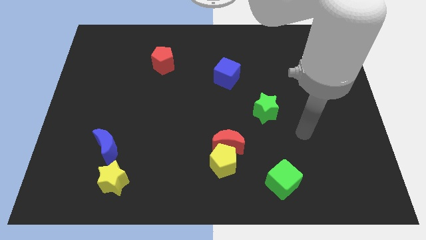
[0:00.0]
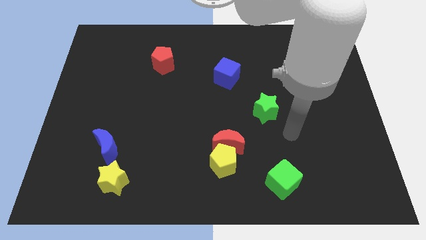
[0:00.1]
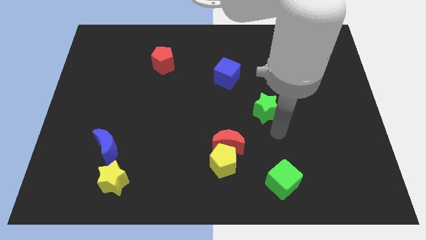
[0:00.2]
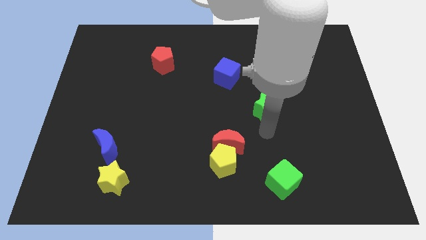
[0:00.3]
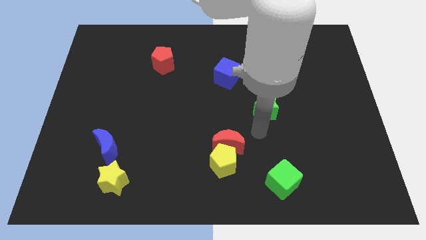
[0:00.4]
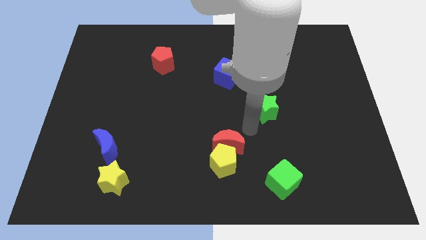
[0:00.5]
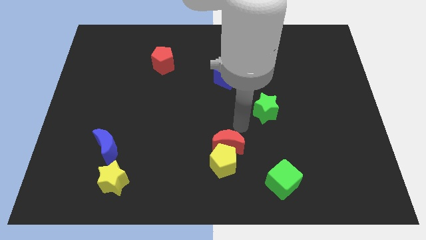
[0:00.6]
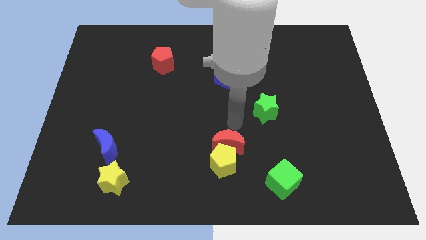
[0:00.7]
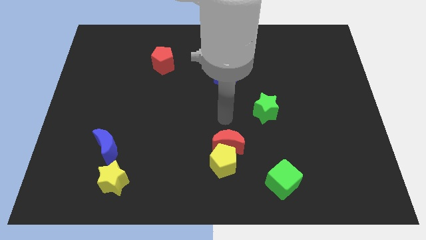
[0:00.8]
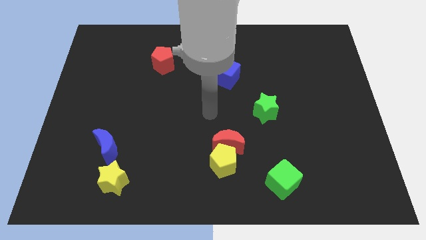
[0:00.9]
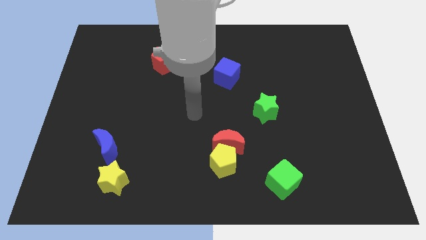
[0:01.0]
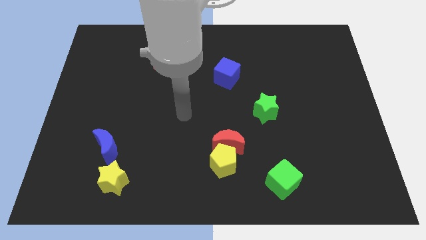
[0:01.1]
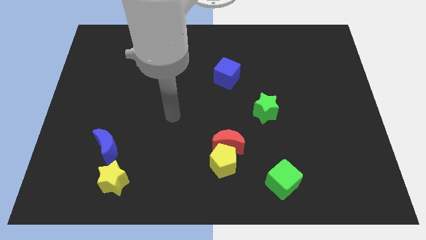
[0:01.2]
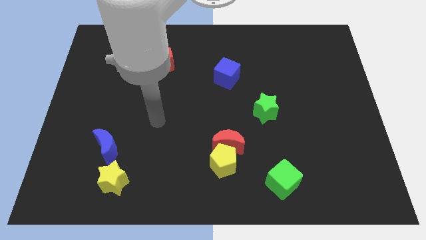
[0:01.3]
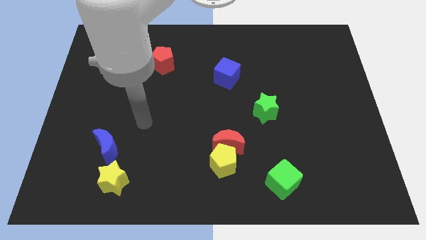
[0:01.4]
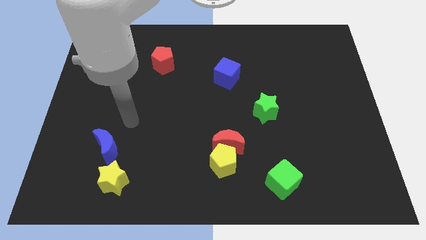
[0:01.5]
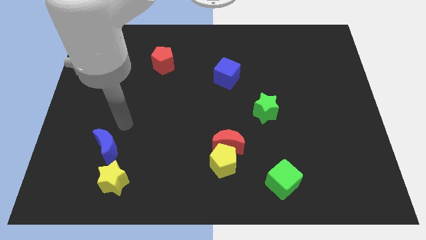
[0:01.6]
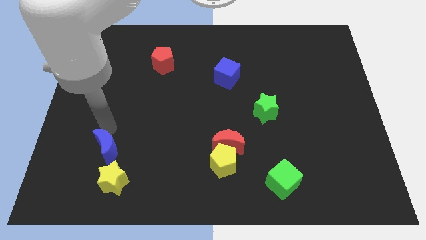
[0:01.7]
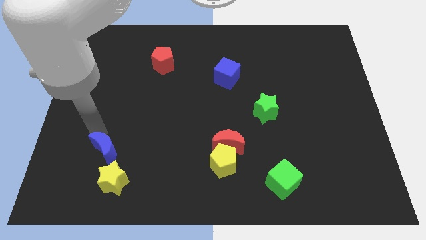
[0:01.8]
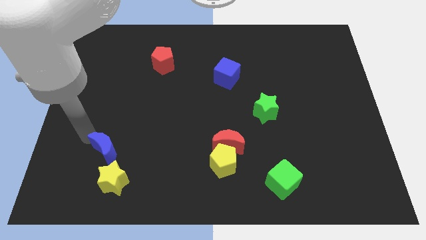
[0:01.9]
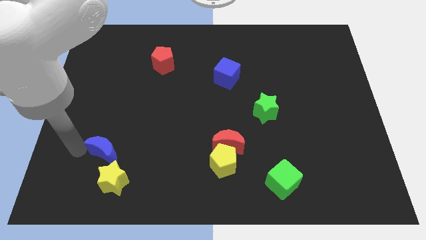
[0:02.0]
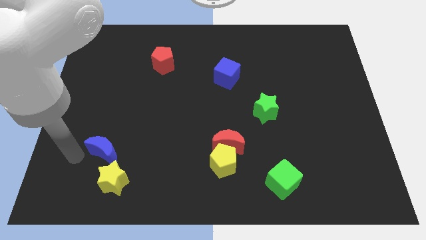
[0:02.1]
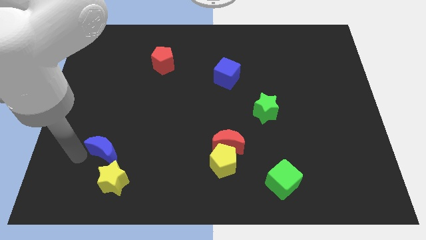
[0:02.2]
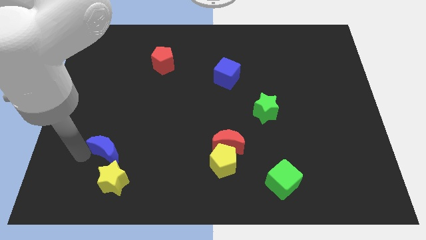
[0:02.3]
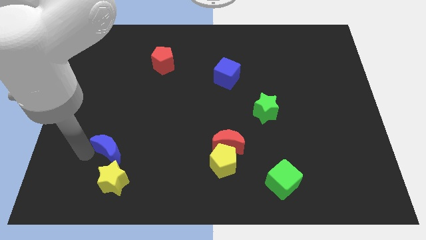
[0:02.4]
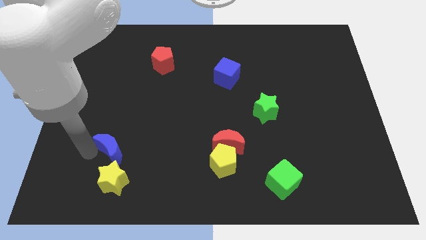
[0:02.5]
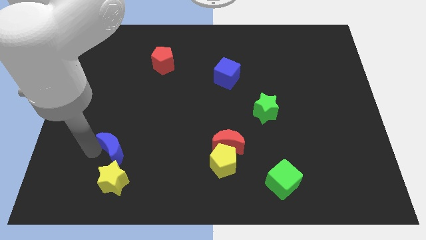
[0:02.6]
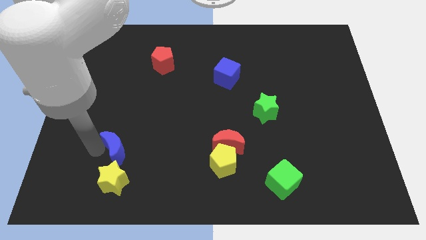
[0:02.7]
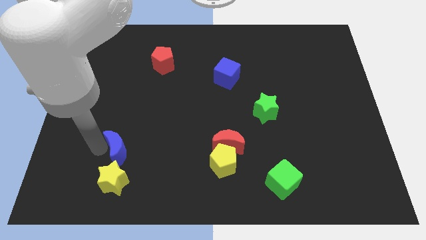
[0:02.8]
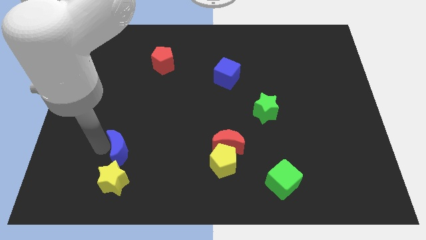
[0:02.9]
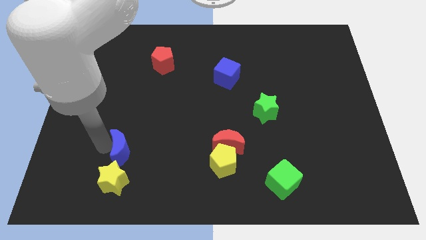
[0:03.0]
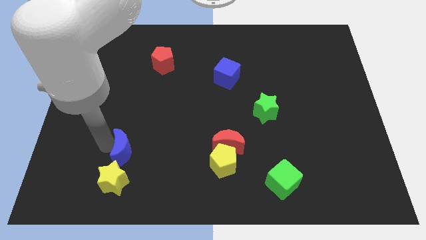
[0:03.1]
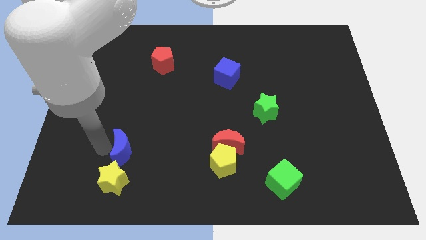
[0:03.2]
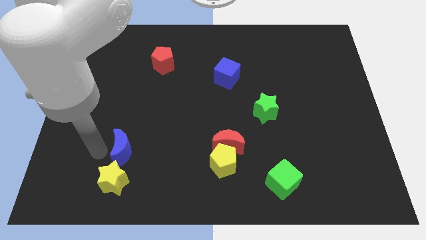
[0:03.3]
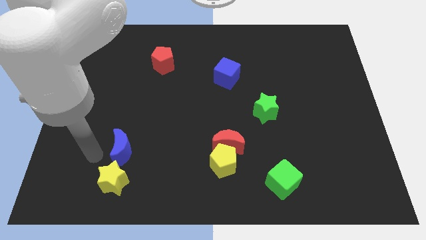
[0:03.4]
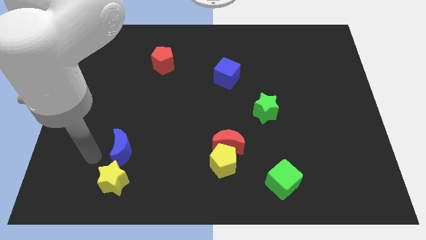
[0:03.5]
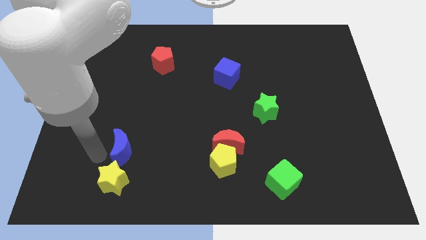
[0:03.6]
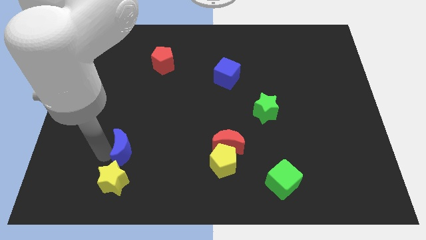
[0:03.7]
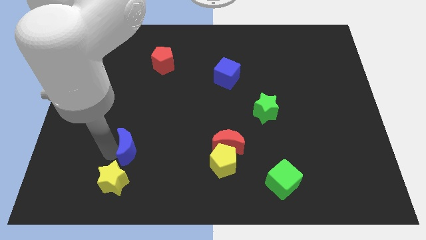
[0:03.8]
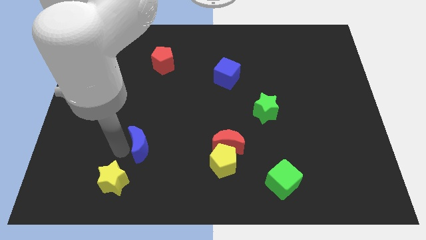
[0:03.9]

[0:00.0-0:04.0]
slide the blue moon right a bit

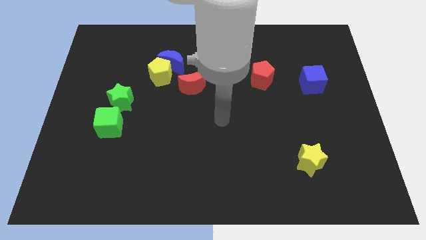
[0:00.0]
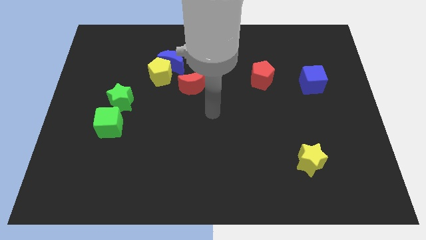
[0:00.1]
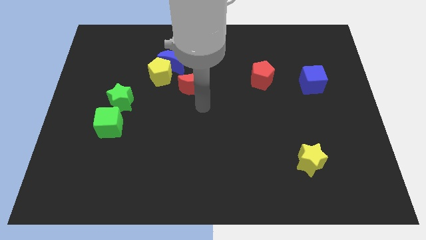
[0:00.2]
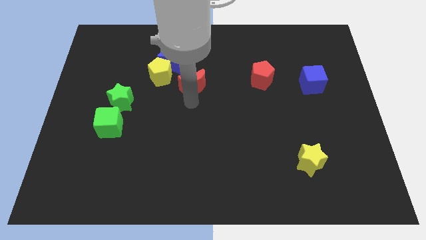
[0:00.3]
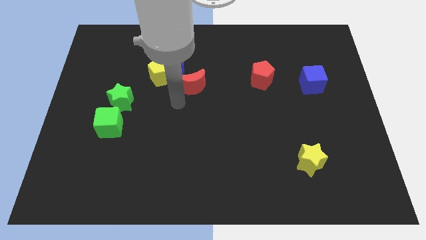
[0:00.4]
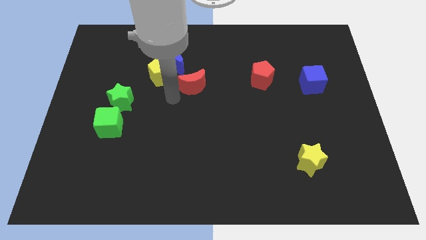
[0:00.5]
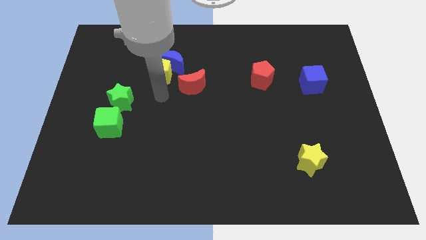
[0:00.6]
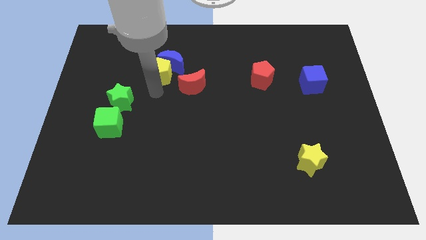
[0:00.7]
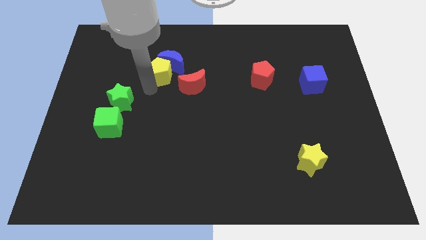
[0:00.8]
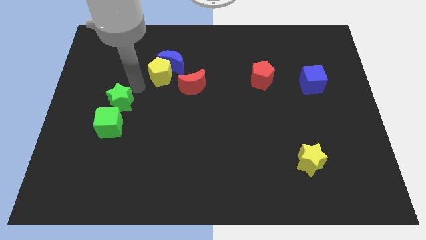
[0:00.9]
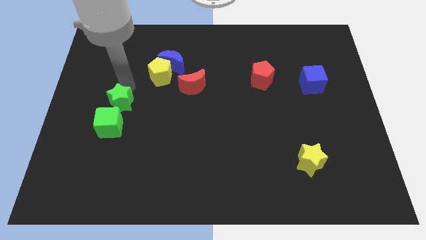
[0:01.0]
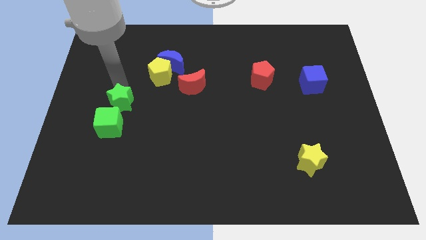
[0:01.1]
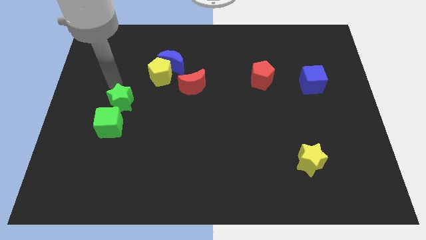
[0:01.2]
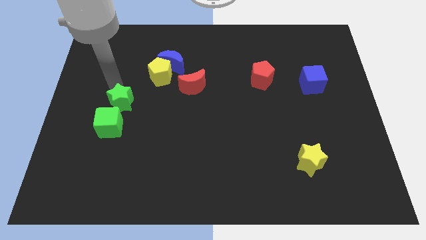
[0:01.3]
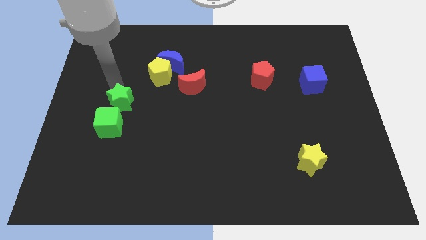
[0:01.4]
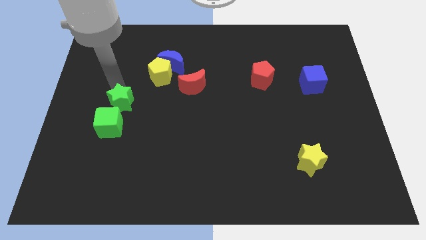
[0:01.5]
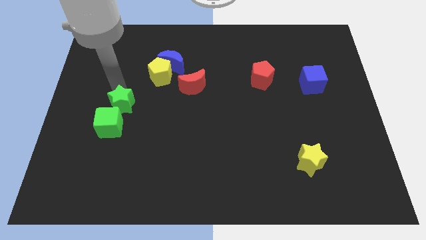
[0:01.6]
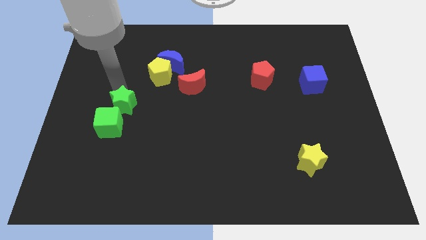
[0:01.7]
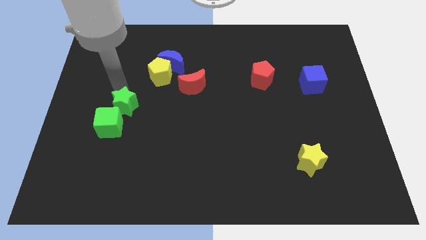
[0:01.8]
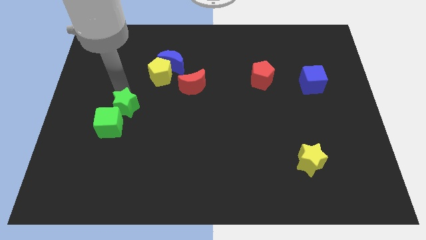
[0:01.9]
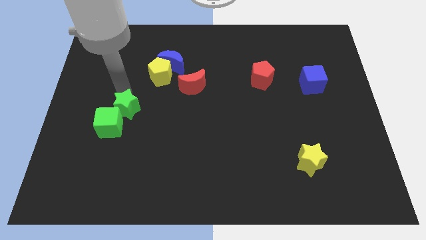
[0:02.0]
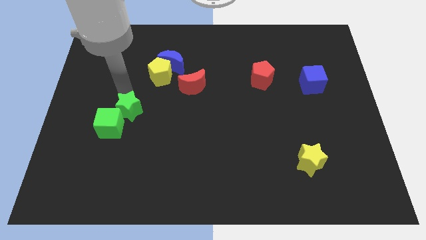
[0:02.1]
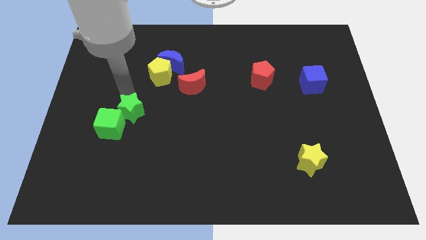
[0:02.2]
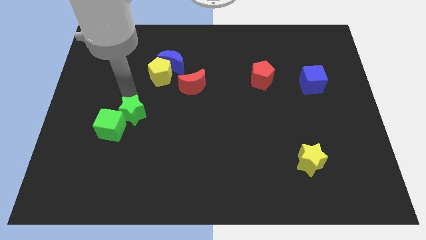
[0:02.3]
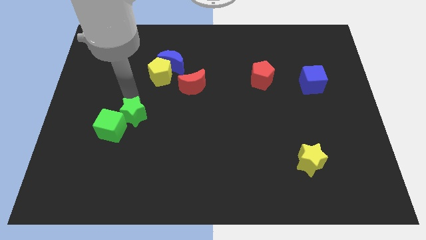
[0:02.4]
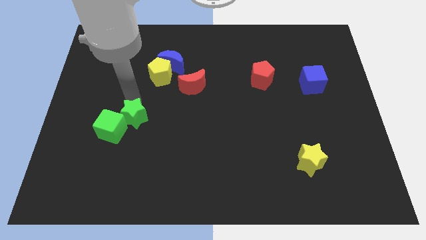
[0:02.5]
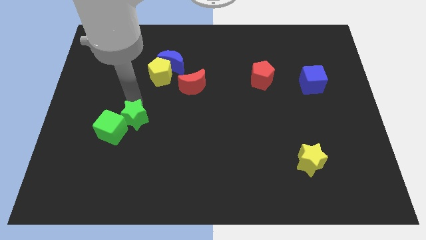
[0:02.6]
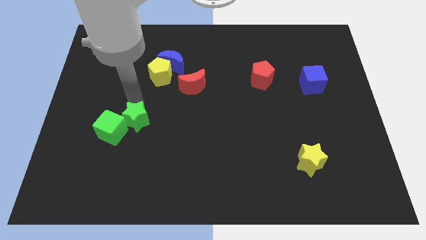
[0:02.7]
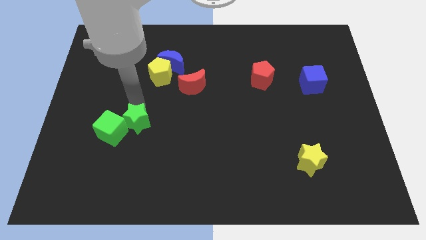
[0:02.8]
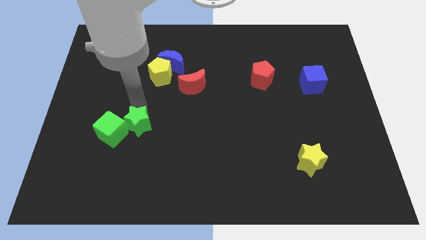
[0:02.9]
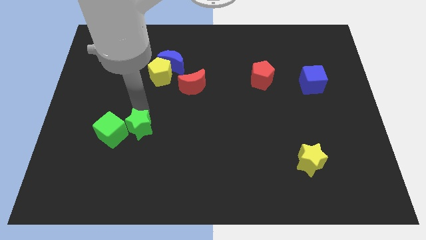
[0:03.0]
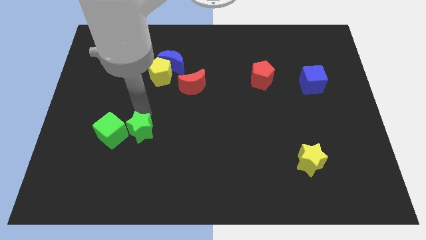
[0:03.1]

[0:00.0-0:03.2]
move the green star down somewhat

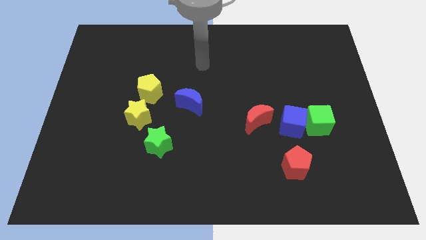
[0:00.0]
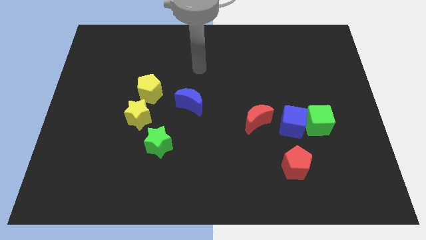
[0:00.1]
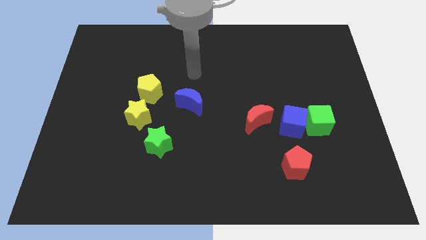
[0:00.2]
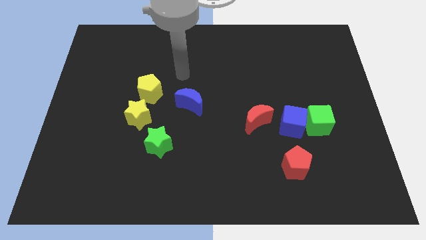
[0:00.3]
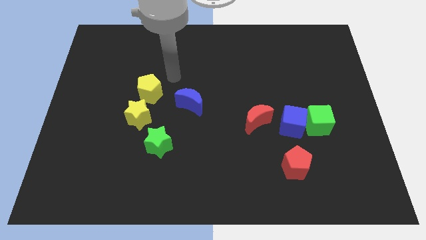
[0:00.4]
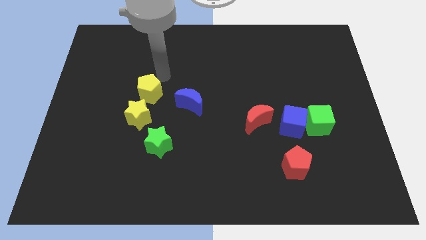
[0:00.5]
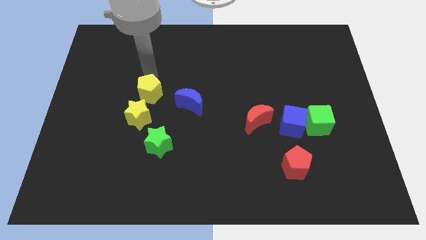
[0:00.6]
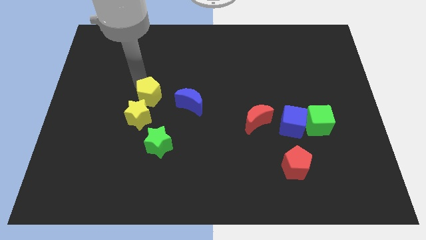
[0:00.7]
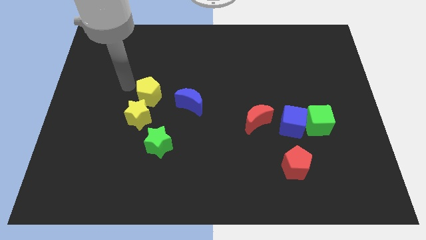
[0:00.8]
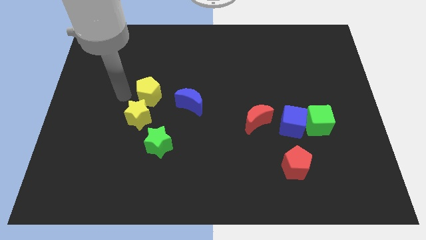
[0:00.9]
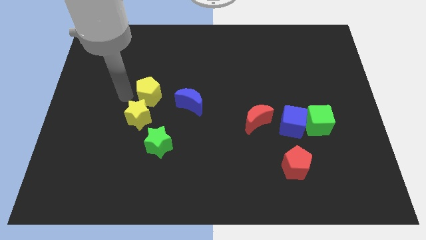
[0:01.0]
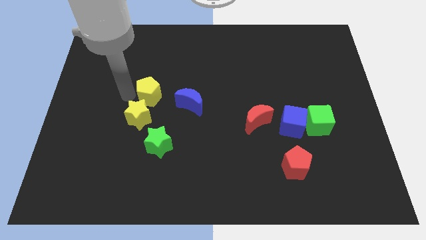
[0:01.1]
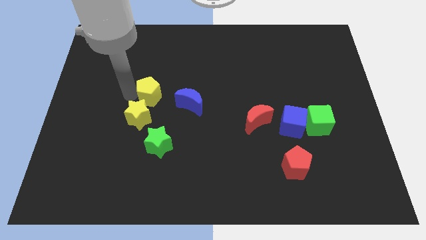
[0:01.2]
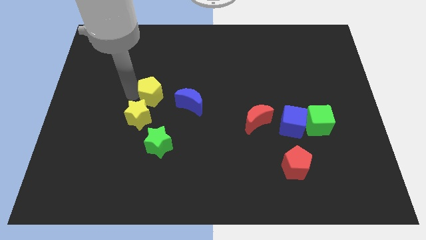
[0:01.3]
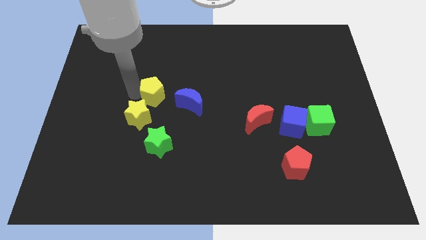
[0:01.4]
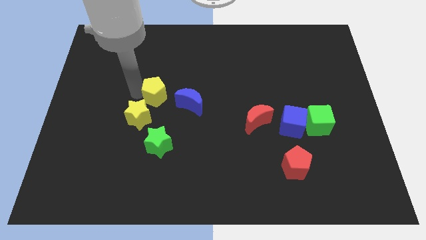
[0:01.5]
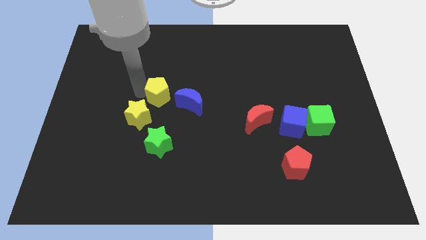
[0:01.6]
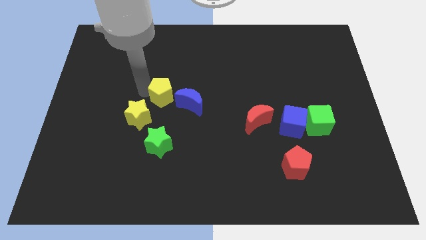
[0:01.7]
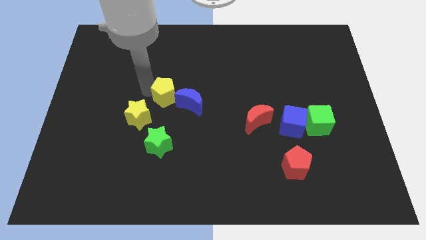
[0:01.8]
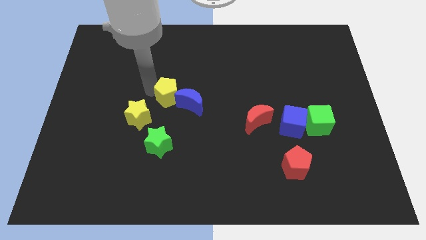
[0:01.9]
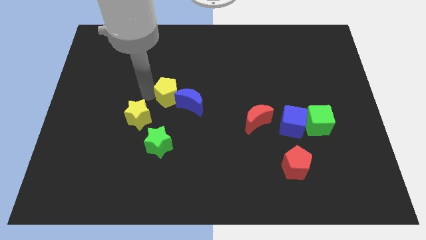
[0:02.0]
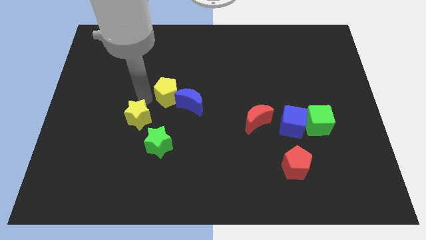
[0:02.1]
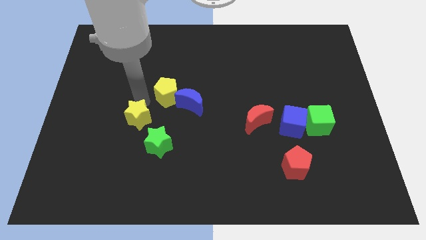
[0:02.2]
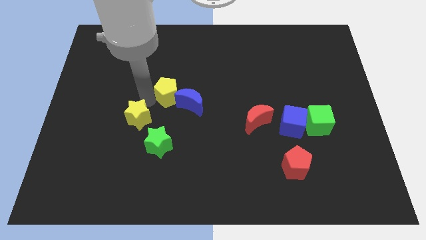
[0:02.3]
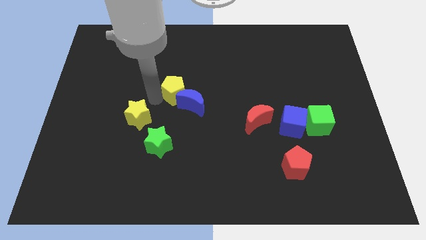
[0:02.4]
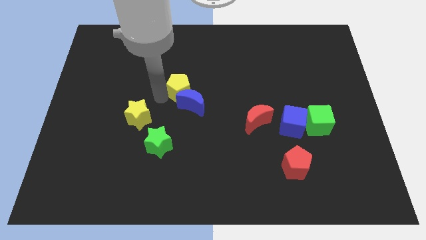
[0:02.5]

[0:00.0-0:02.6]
slightly slide the yellow pentagon right
